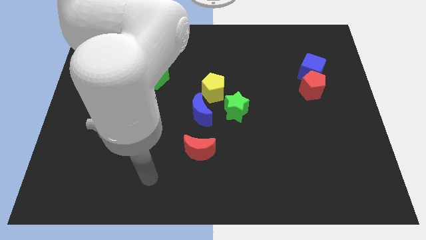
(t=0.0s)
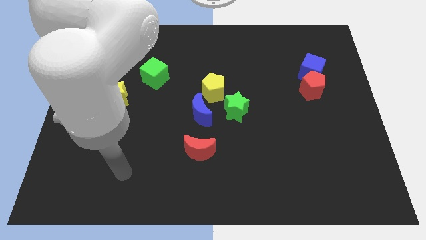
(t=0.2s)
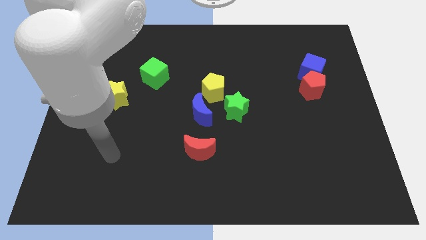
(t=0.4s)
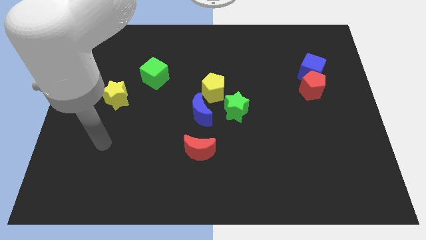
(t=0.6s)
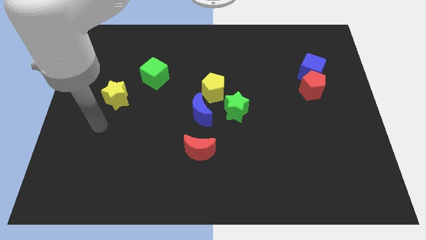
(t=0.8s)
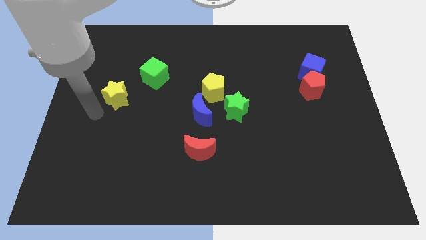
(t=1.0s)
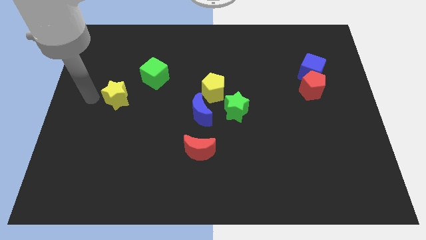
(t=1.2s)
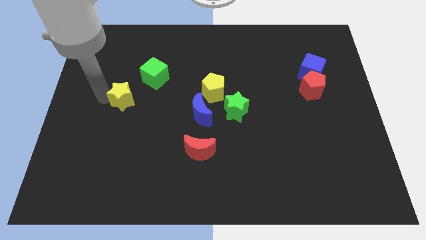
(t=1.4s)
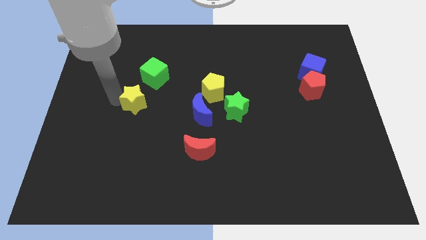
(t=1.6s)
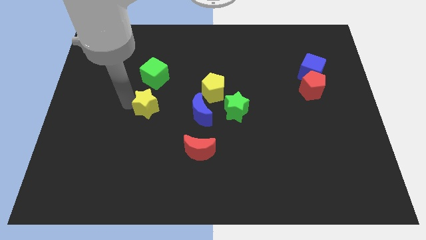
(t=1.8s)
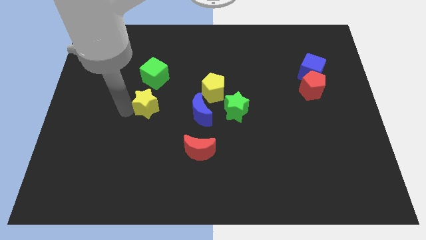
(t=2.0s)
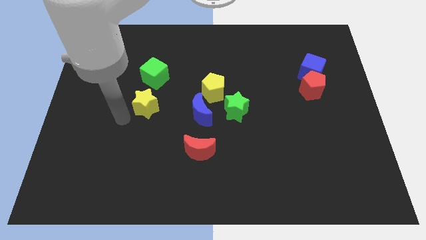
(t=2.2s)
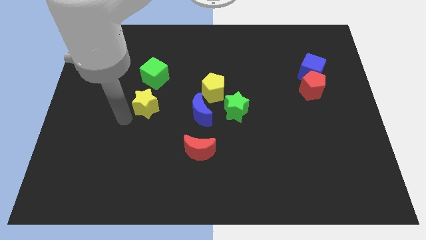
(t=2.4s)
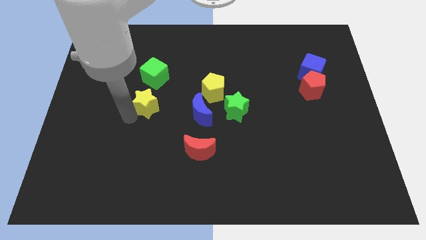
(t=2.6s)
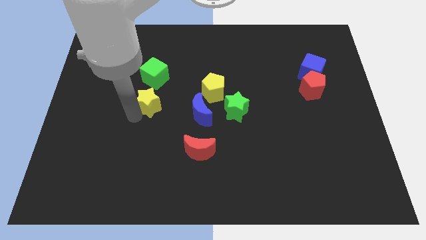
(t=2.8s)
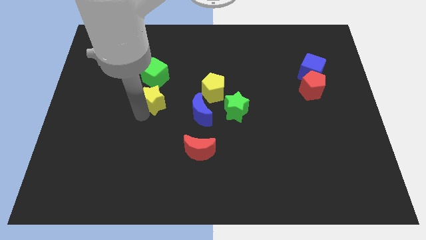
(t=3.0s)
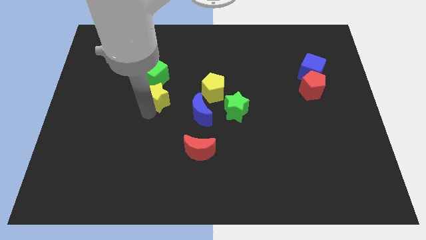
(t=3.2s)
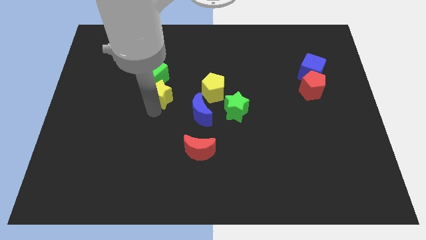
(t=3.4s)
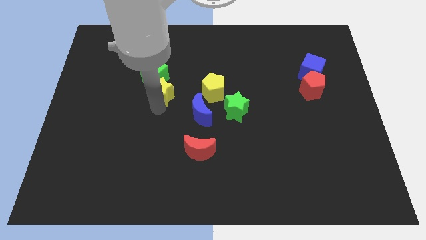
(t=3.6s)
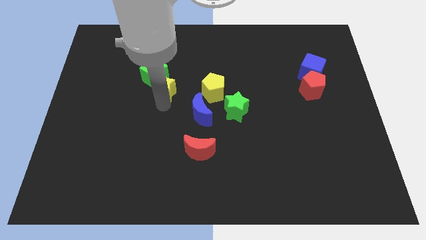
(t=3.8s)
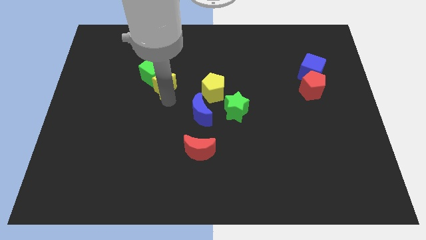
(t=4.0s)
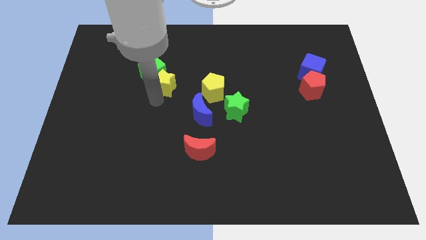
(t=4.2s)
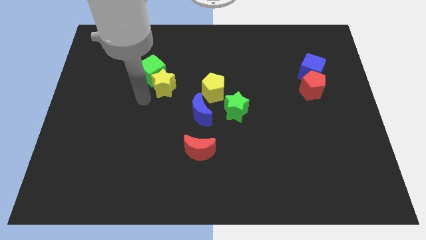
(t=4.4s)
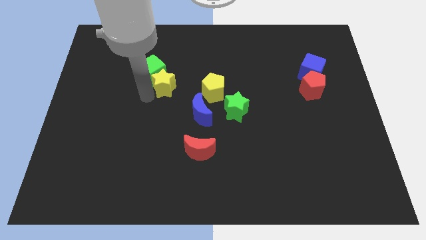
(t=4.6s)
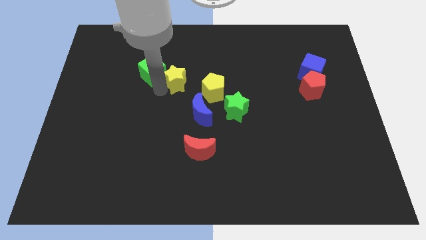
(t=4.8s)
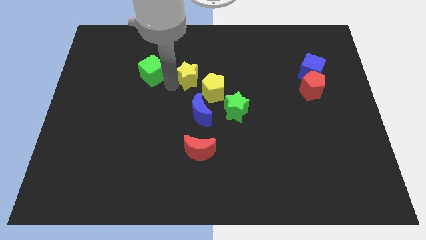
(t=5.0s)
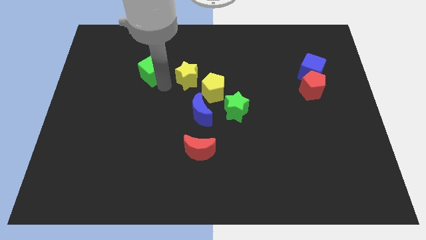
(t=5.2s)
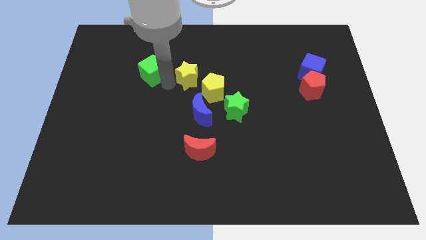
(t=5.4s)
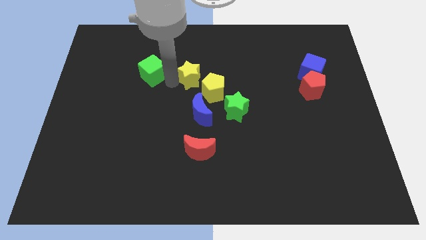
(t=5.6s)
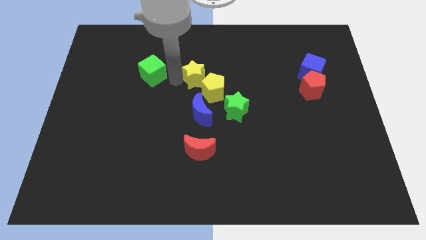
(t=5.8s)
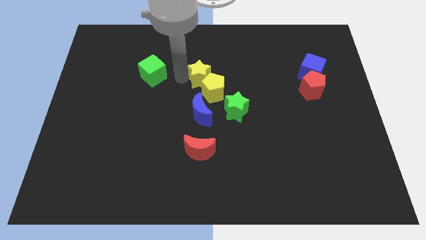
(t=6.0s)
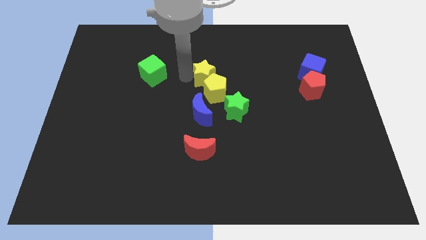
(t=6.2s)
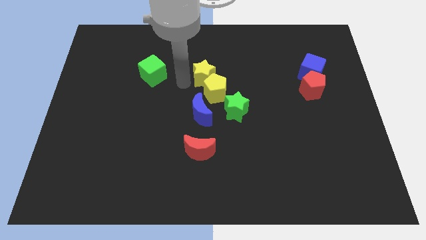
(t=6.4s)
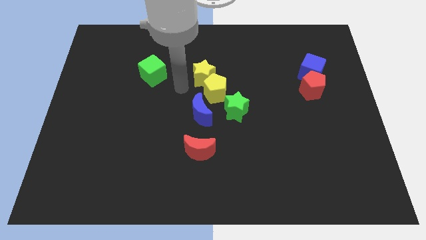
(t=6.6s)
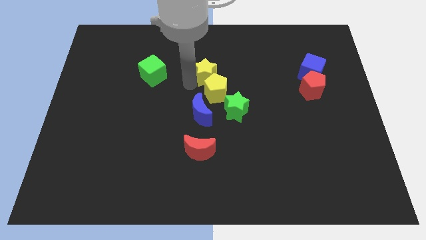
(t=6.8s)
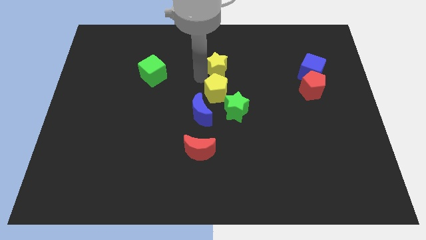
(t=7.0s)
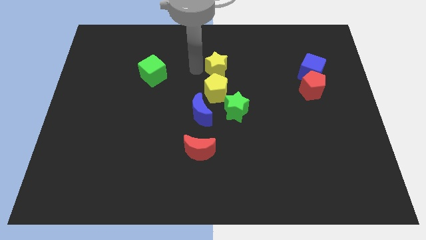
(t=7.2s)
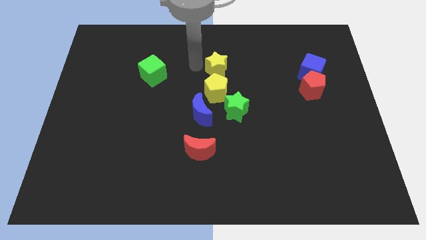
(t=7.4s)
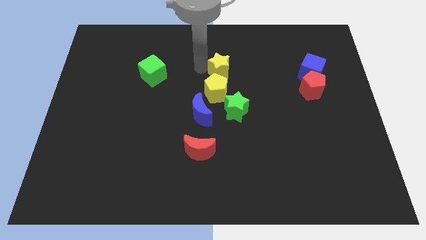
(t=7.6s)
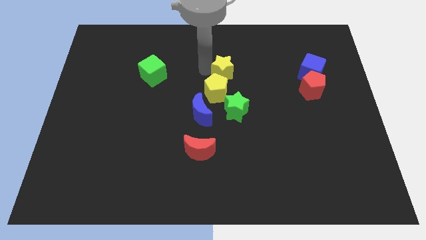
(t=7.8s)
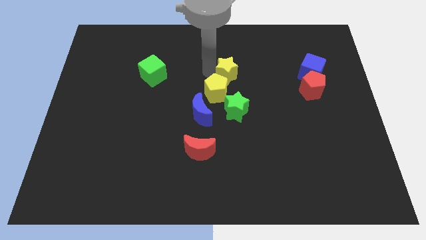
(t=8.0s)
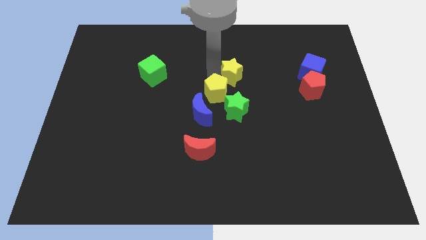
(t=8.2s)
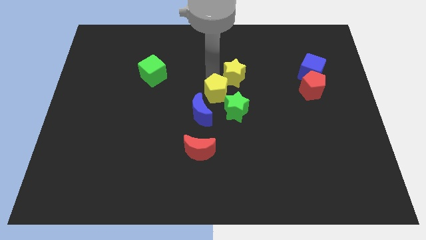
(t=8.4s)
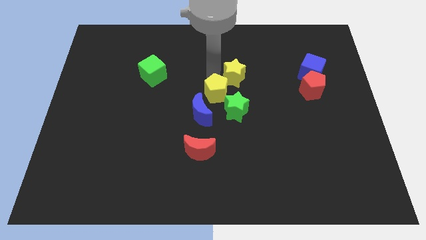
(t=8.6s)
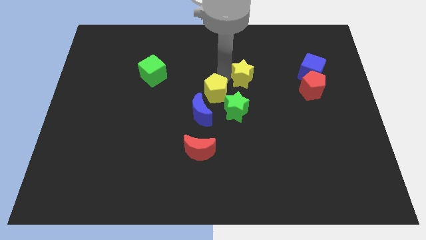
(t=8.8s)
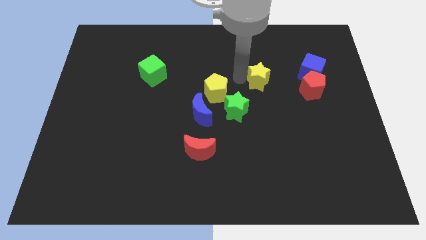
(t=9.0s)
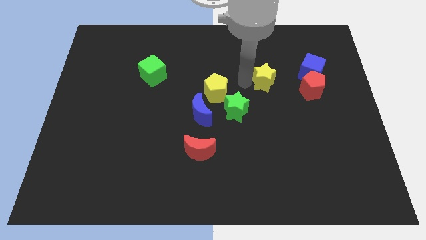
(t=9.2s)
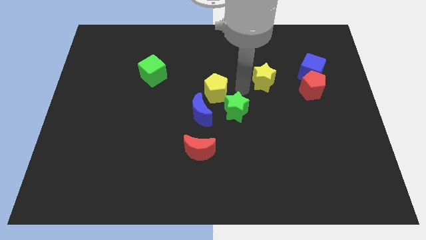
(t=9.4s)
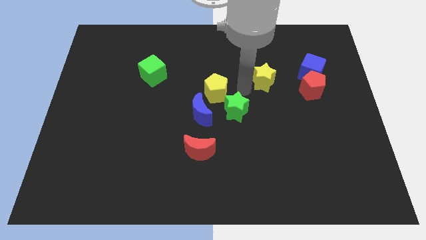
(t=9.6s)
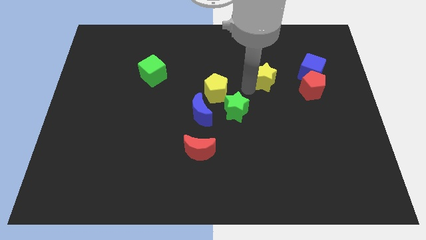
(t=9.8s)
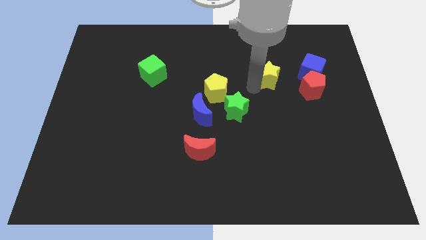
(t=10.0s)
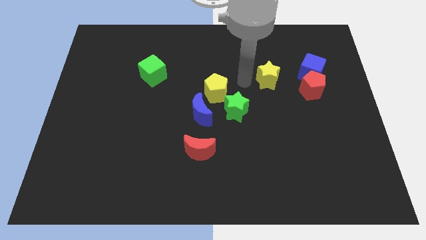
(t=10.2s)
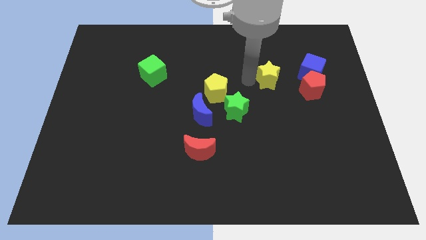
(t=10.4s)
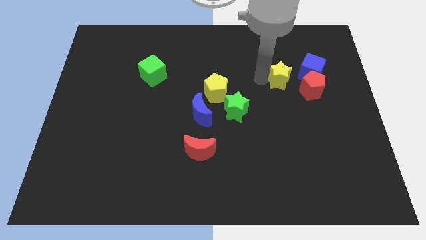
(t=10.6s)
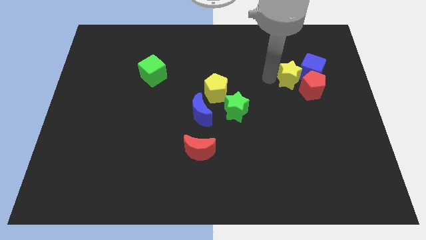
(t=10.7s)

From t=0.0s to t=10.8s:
put the yellow star towards the red pentagon

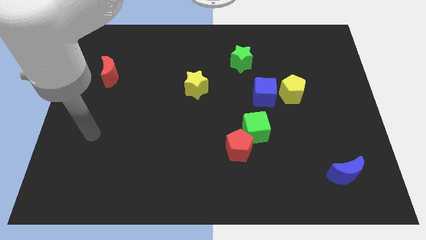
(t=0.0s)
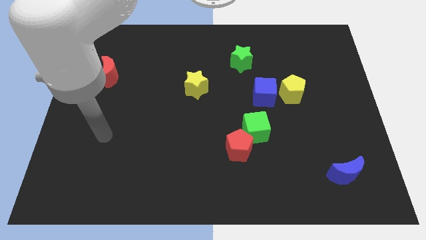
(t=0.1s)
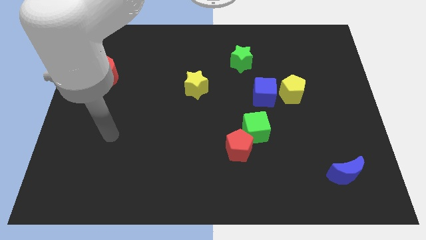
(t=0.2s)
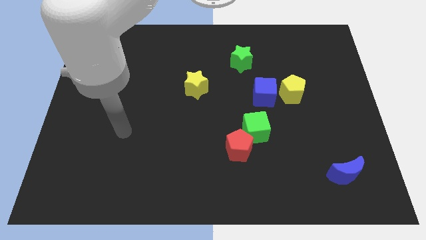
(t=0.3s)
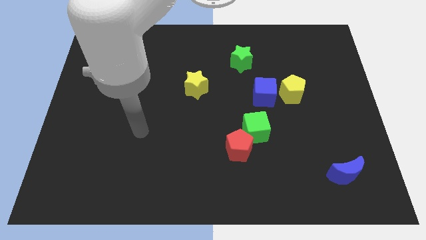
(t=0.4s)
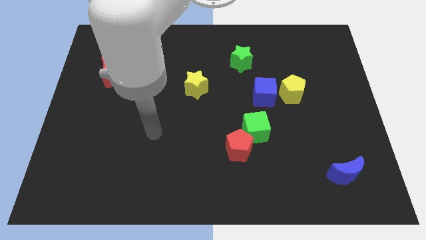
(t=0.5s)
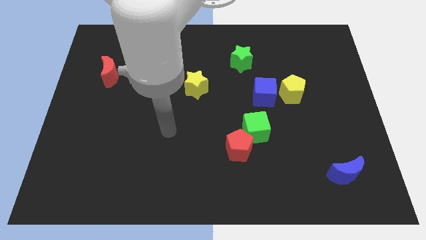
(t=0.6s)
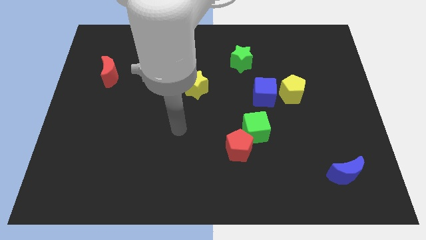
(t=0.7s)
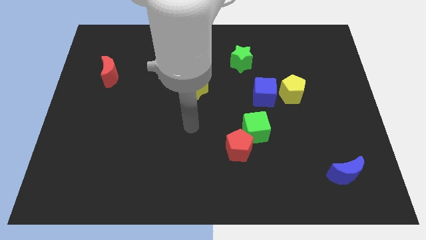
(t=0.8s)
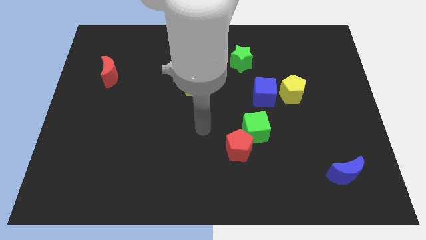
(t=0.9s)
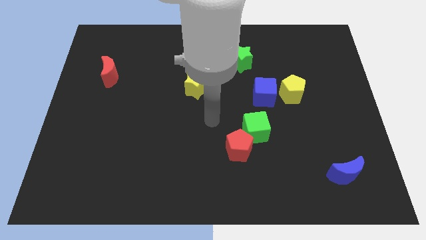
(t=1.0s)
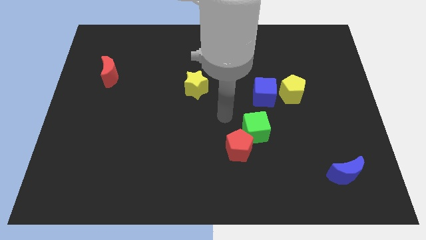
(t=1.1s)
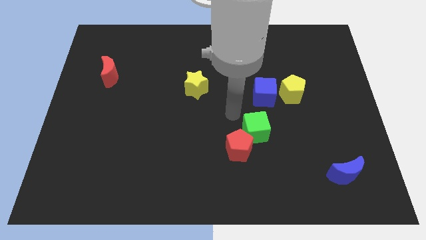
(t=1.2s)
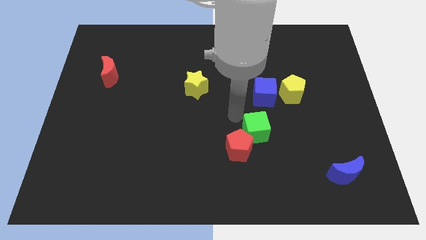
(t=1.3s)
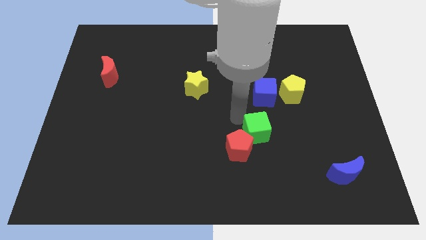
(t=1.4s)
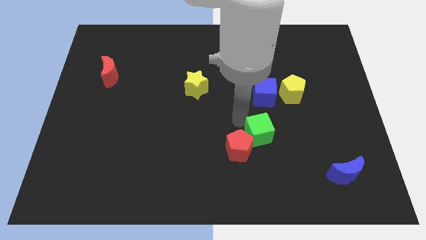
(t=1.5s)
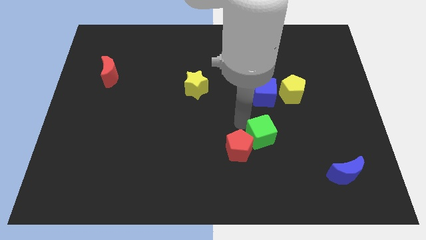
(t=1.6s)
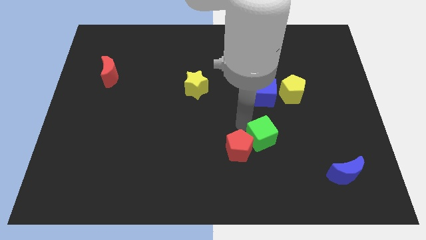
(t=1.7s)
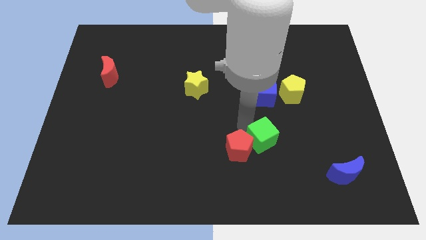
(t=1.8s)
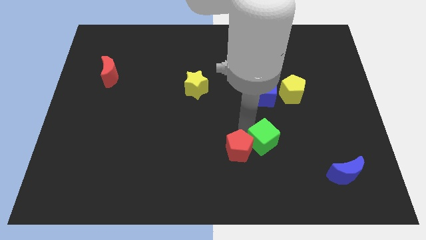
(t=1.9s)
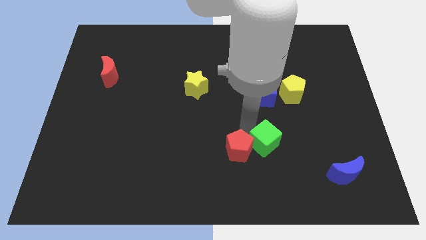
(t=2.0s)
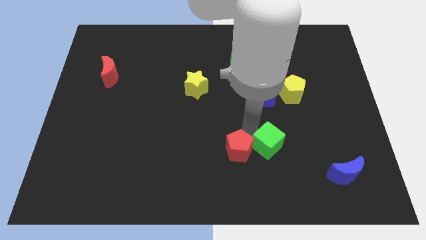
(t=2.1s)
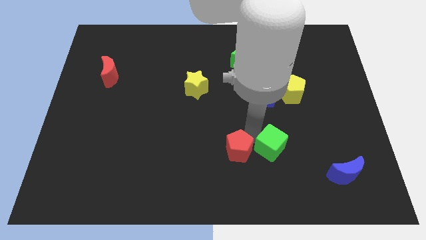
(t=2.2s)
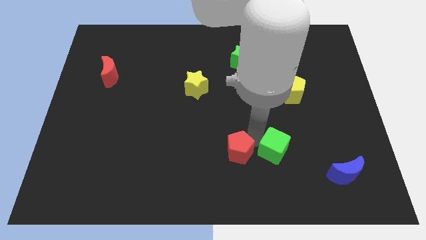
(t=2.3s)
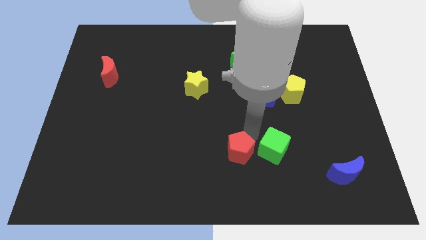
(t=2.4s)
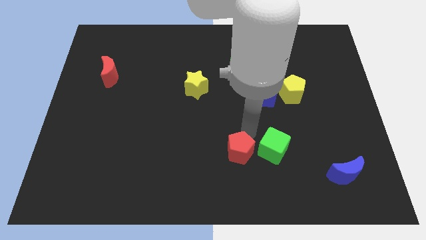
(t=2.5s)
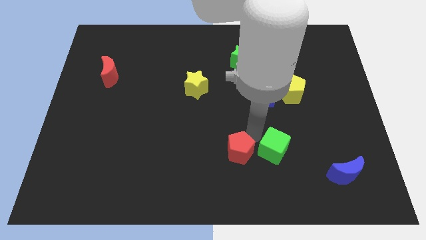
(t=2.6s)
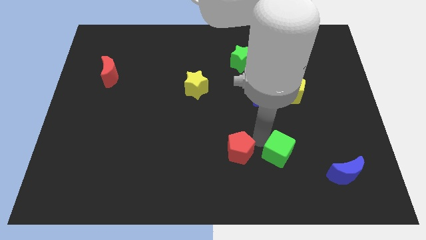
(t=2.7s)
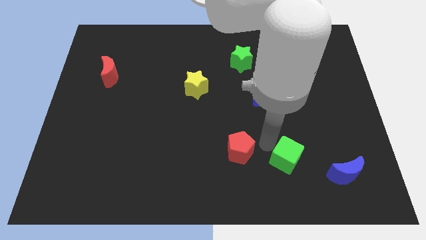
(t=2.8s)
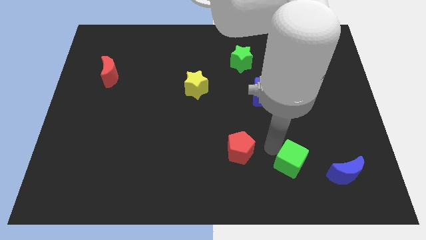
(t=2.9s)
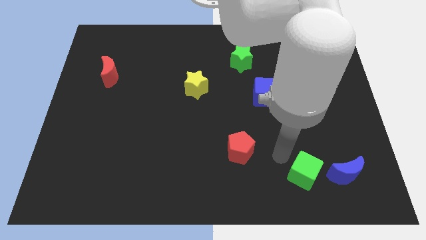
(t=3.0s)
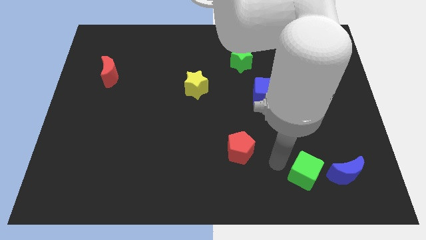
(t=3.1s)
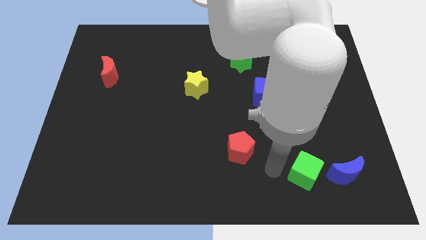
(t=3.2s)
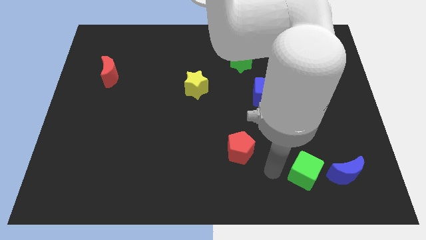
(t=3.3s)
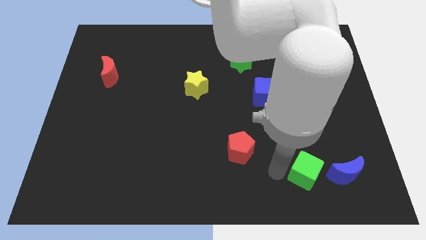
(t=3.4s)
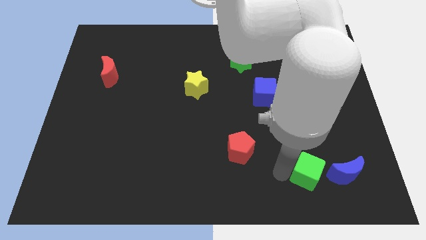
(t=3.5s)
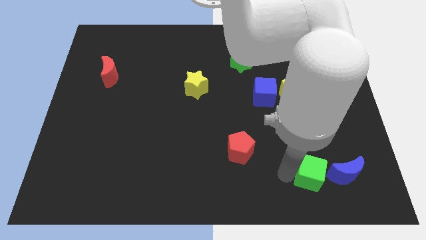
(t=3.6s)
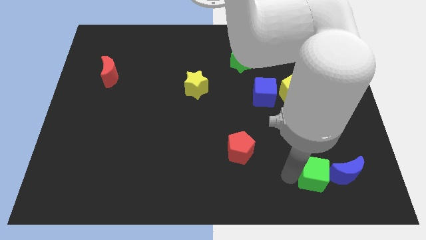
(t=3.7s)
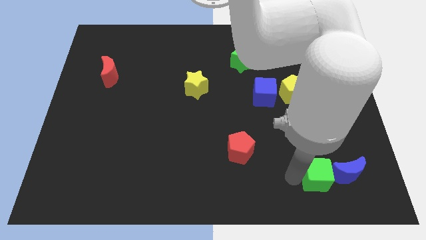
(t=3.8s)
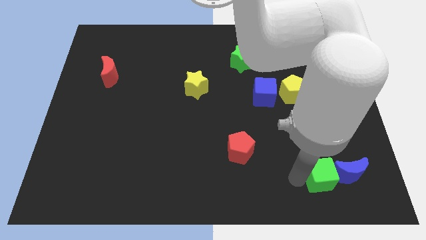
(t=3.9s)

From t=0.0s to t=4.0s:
put the green cube towards the blue moon
